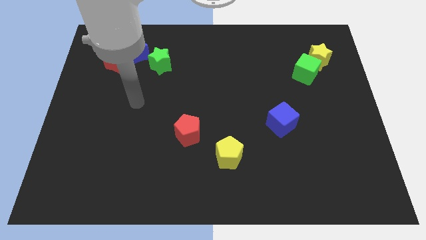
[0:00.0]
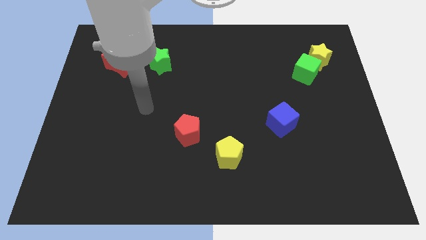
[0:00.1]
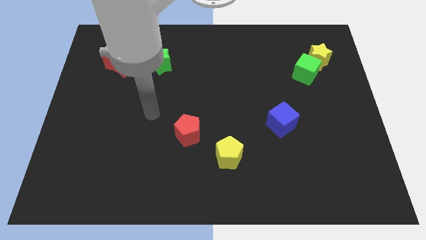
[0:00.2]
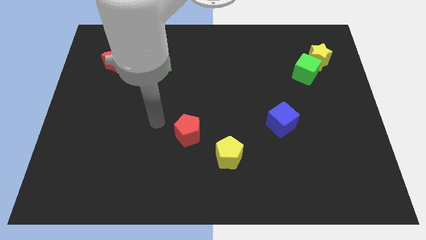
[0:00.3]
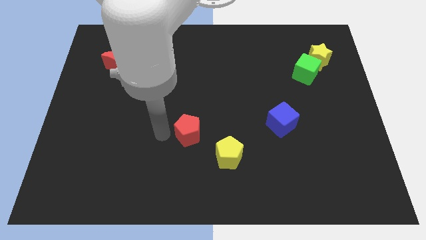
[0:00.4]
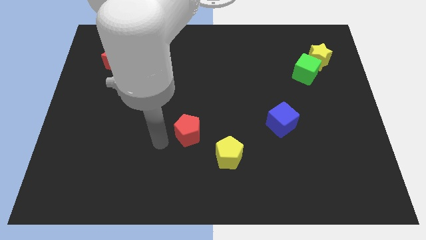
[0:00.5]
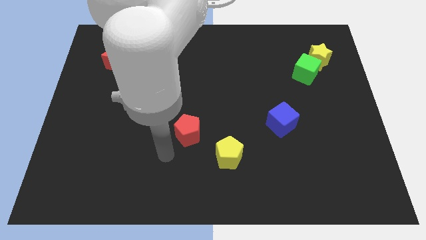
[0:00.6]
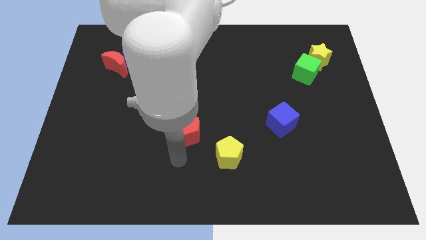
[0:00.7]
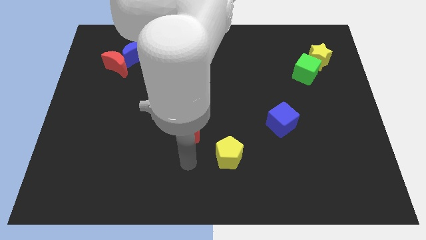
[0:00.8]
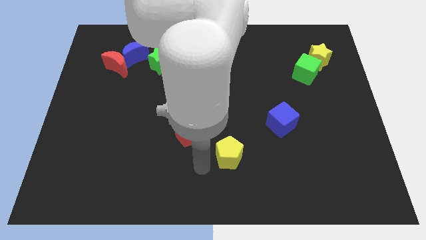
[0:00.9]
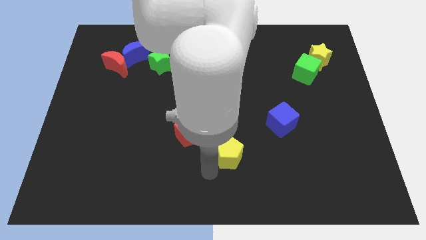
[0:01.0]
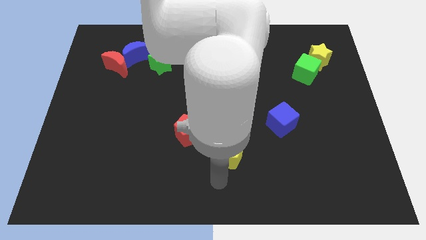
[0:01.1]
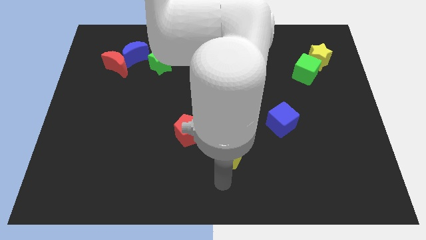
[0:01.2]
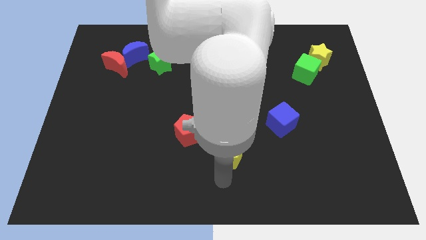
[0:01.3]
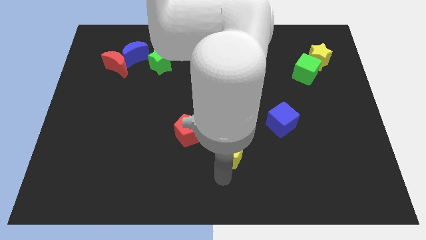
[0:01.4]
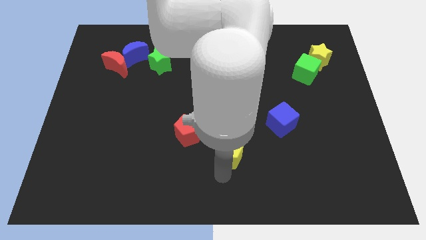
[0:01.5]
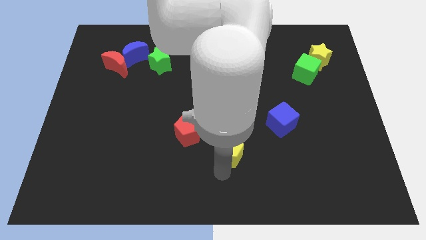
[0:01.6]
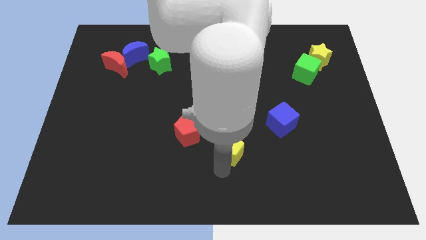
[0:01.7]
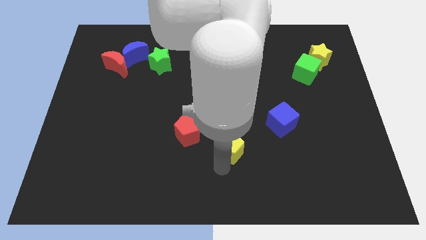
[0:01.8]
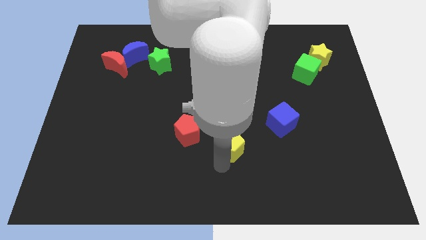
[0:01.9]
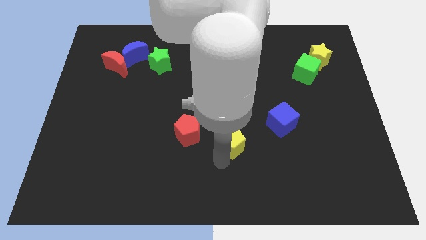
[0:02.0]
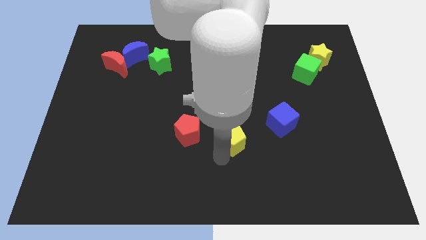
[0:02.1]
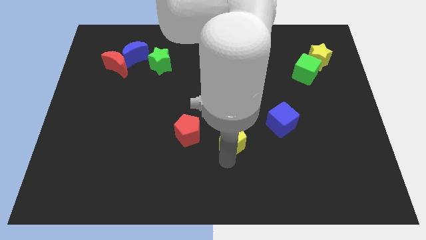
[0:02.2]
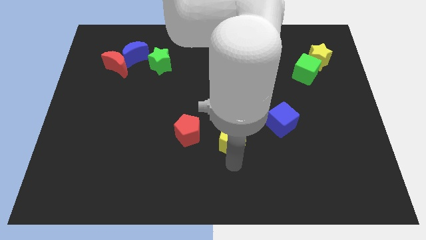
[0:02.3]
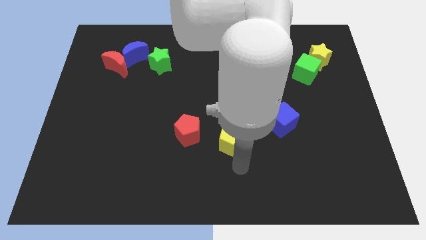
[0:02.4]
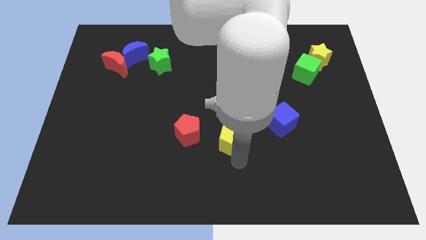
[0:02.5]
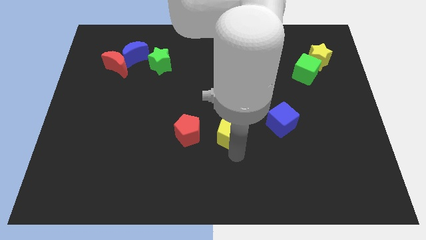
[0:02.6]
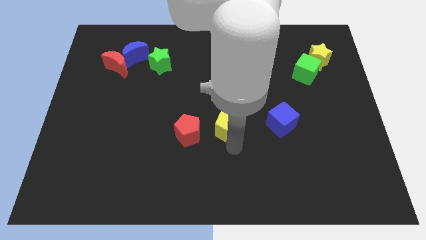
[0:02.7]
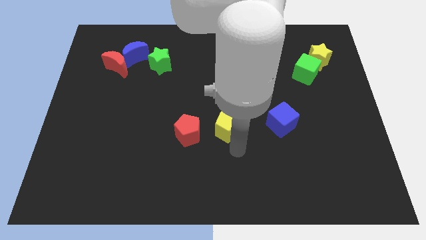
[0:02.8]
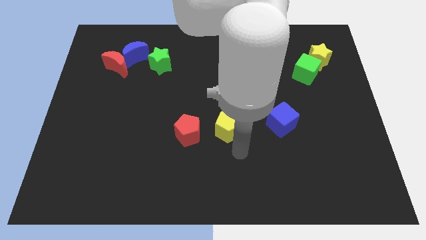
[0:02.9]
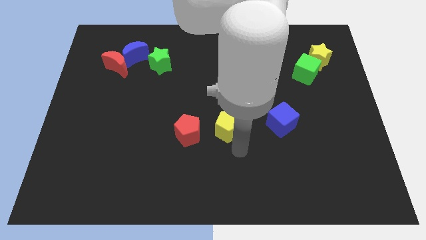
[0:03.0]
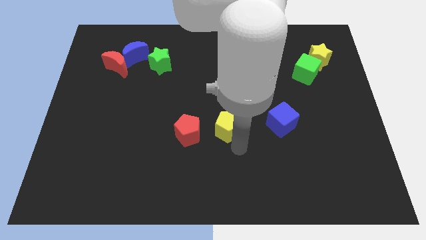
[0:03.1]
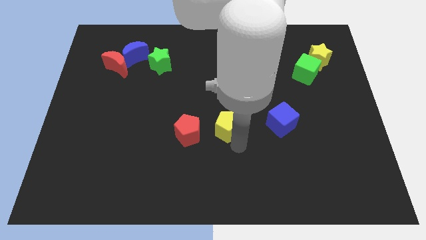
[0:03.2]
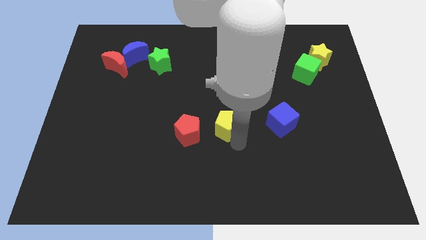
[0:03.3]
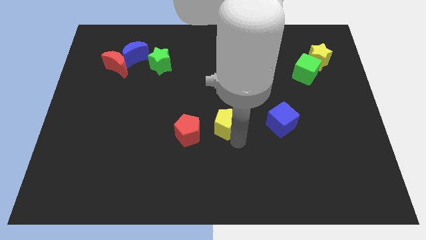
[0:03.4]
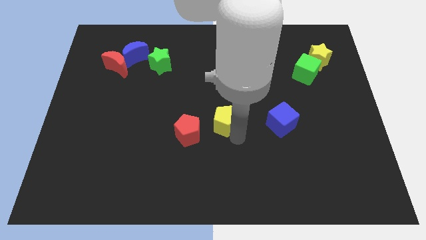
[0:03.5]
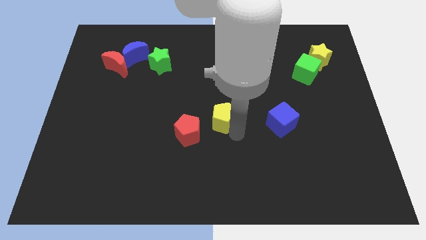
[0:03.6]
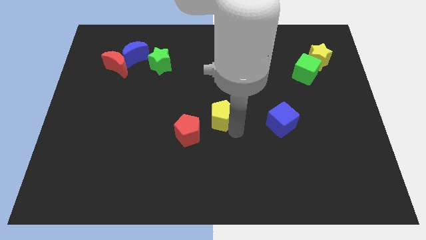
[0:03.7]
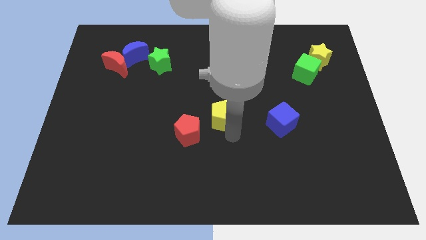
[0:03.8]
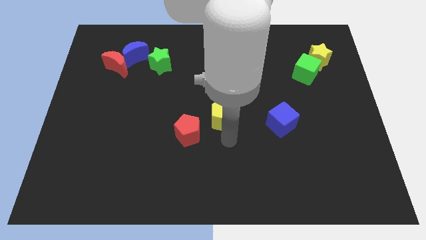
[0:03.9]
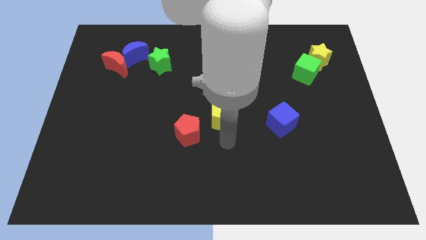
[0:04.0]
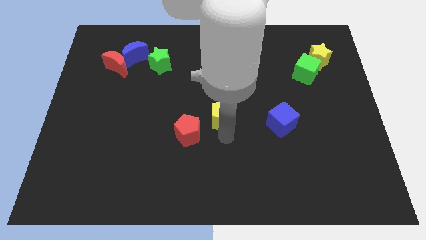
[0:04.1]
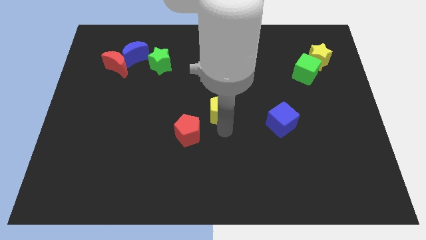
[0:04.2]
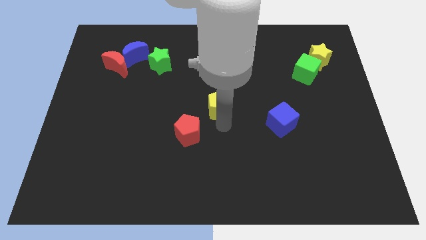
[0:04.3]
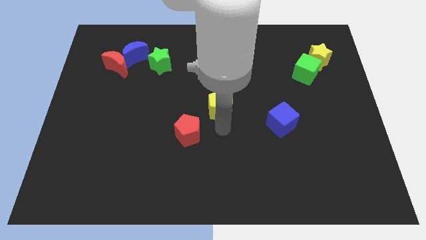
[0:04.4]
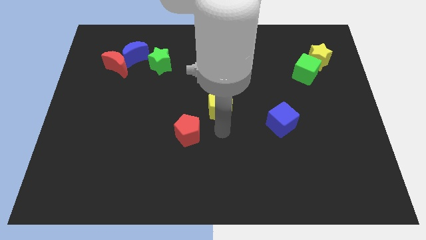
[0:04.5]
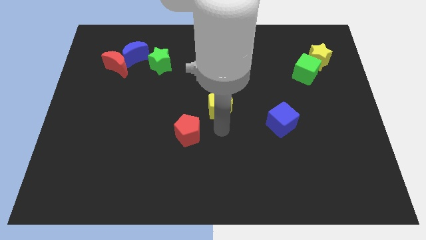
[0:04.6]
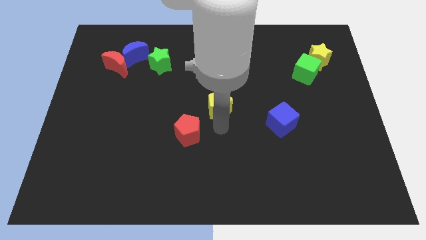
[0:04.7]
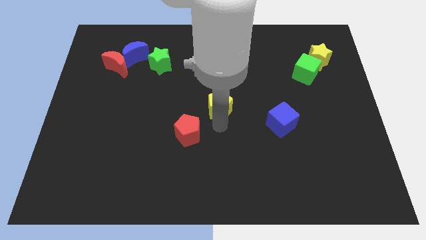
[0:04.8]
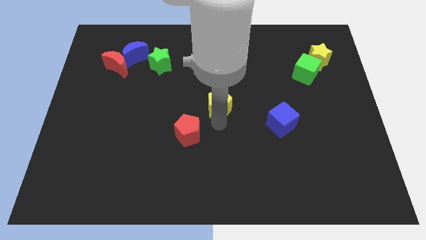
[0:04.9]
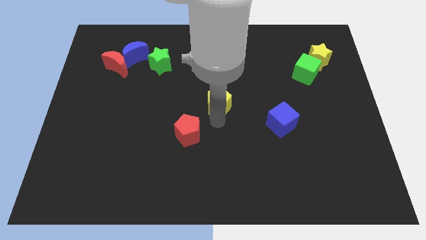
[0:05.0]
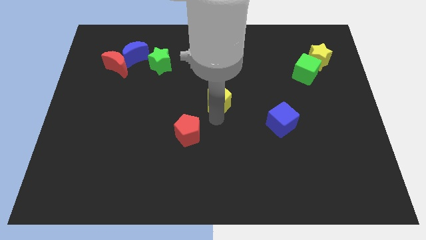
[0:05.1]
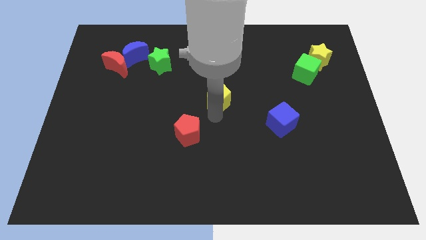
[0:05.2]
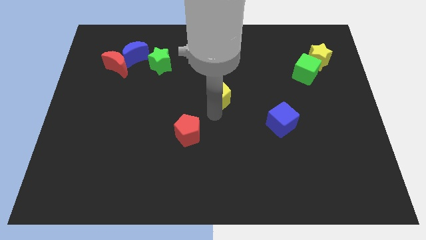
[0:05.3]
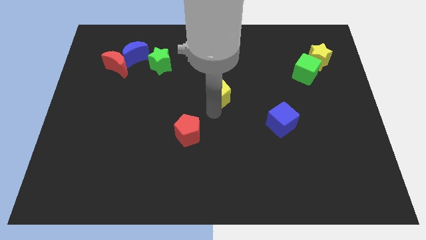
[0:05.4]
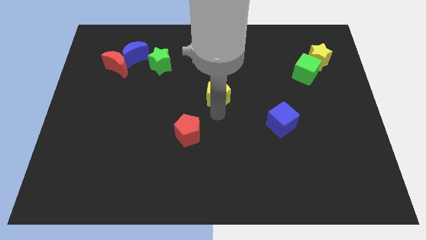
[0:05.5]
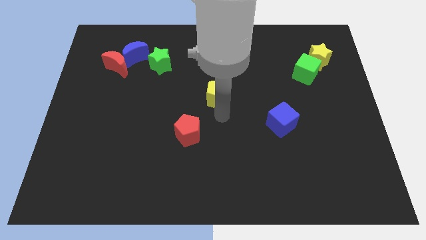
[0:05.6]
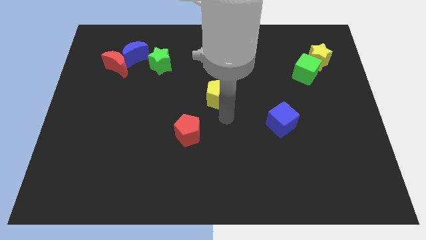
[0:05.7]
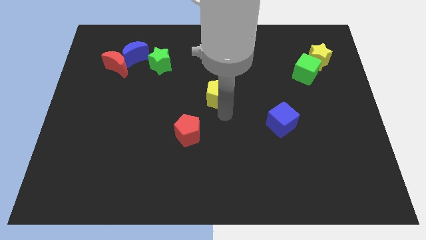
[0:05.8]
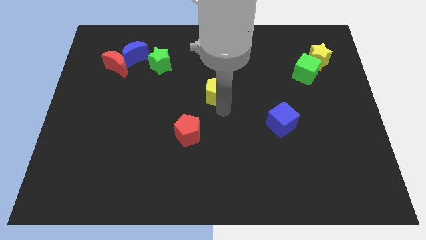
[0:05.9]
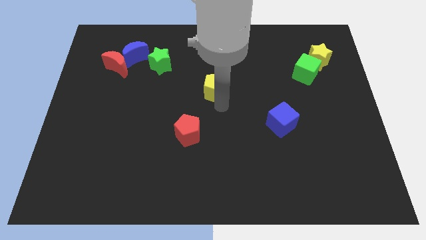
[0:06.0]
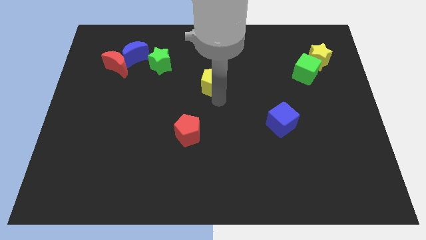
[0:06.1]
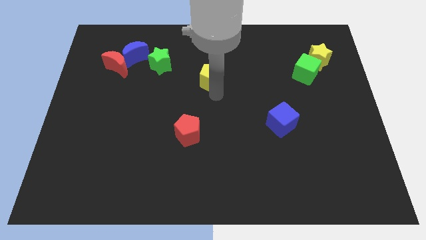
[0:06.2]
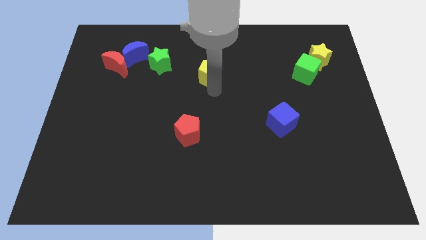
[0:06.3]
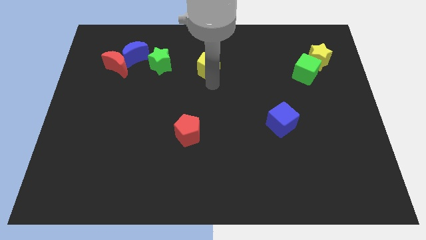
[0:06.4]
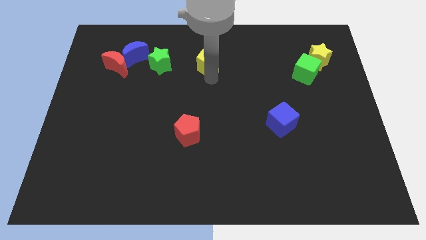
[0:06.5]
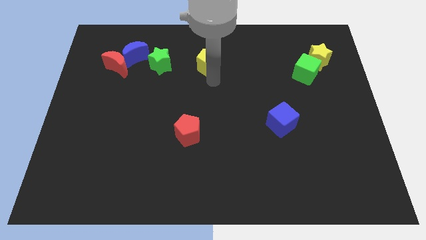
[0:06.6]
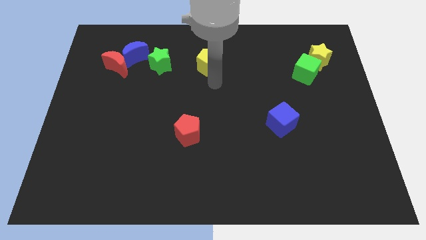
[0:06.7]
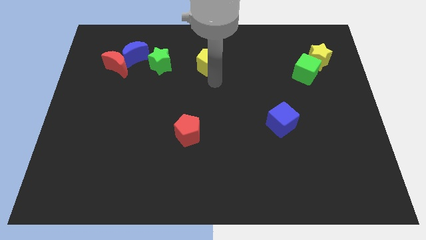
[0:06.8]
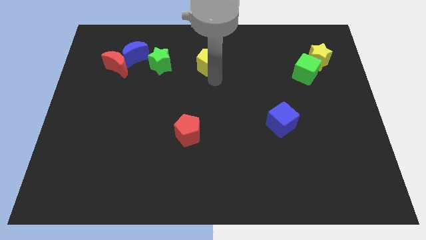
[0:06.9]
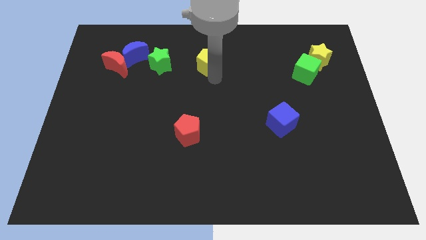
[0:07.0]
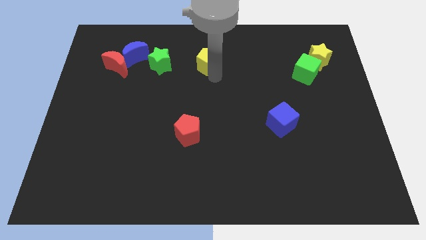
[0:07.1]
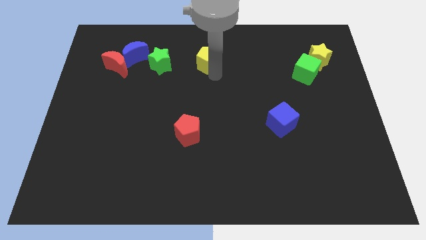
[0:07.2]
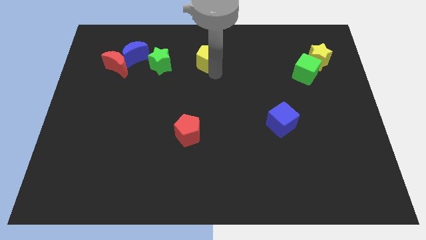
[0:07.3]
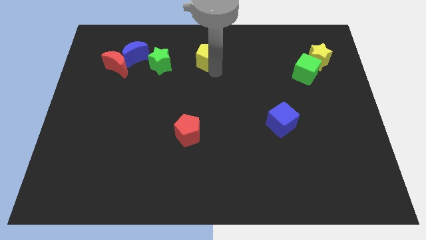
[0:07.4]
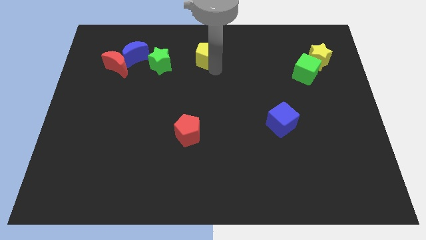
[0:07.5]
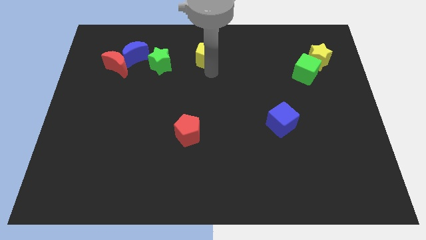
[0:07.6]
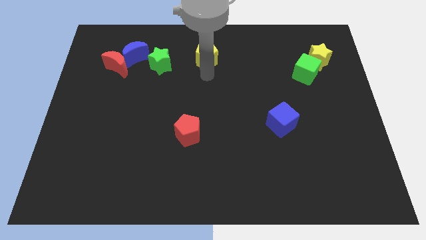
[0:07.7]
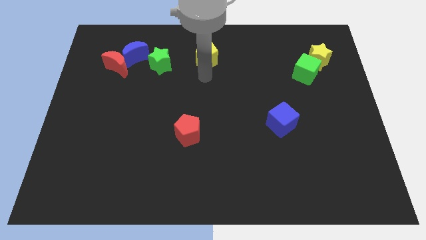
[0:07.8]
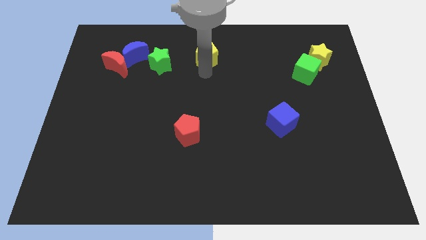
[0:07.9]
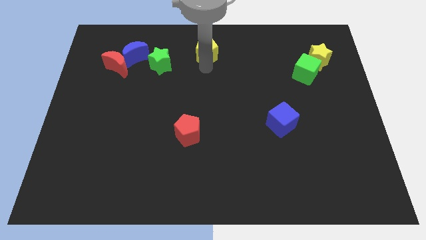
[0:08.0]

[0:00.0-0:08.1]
slide the yellow pentagon to the top
